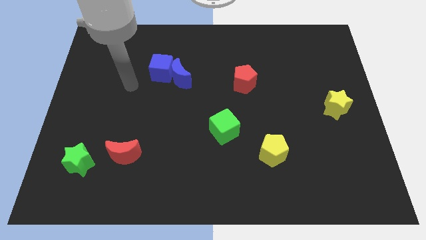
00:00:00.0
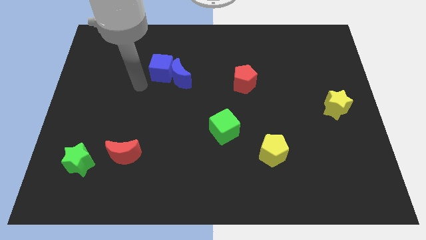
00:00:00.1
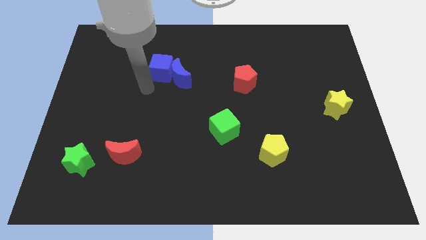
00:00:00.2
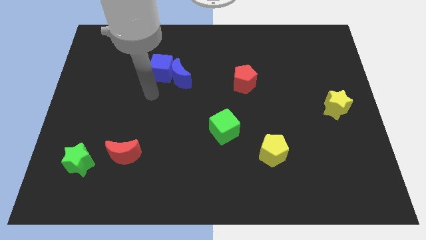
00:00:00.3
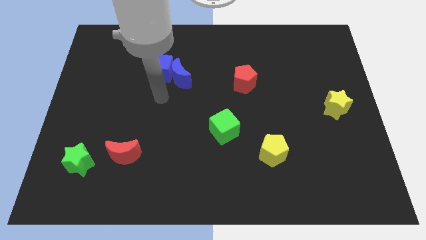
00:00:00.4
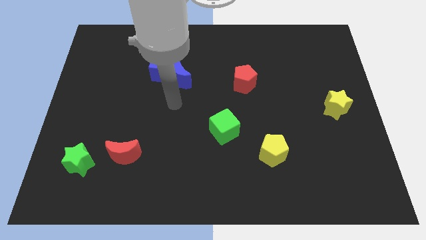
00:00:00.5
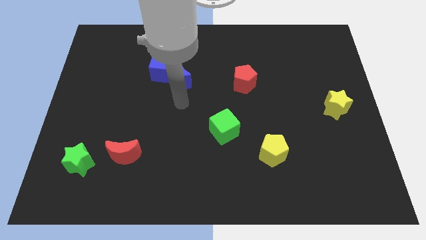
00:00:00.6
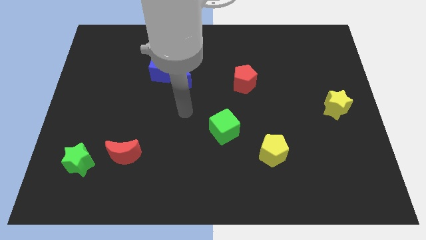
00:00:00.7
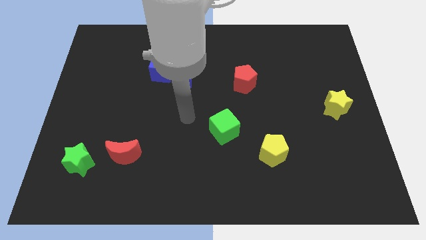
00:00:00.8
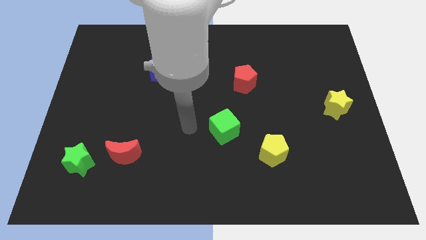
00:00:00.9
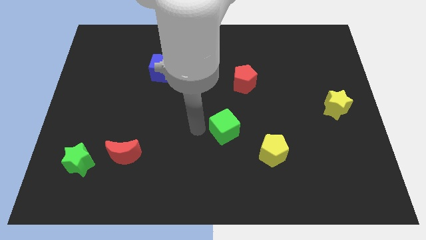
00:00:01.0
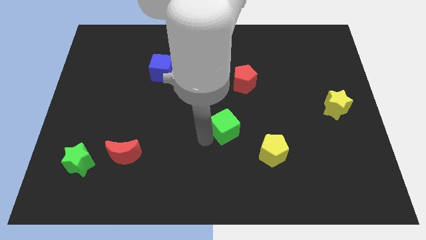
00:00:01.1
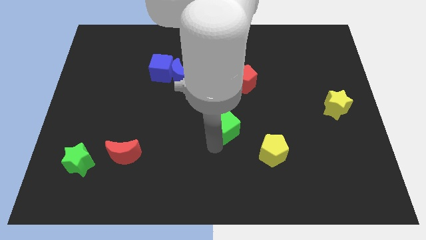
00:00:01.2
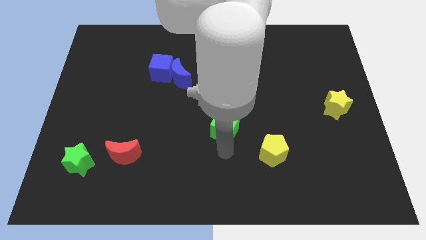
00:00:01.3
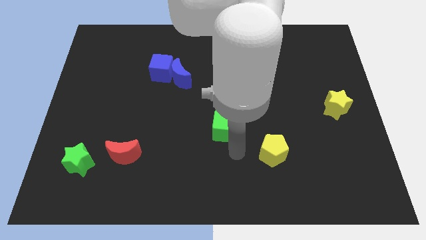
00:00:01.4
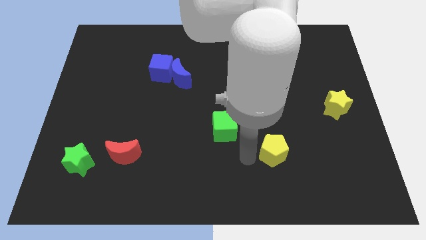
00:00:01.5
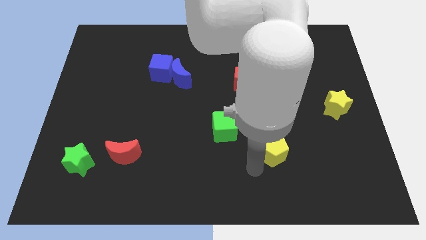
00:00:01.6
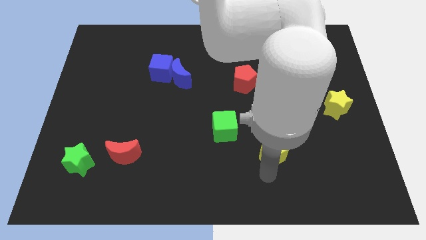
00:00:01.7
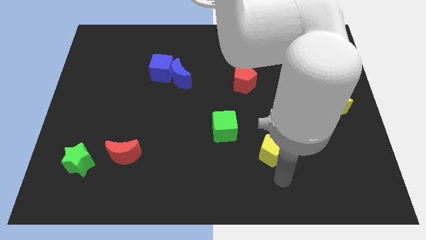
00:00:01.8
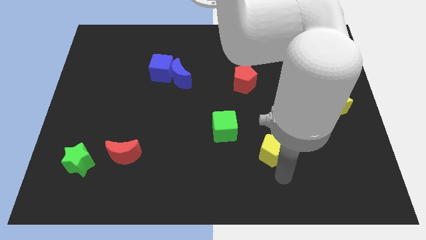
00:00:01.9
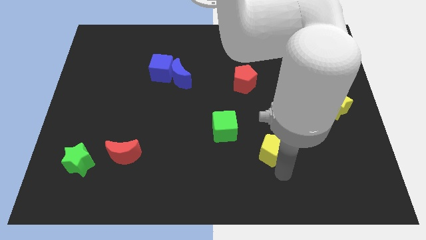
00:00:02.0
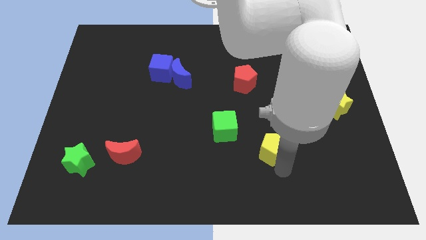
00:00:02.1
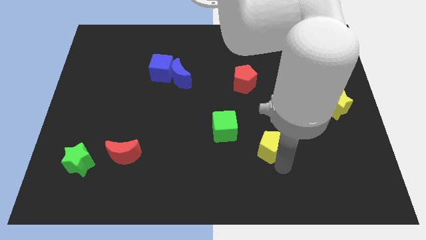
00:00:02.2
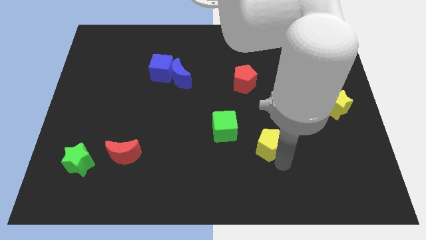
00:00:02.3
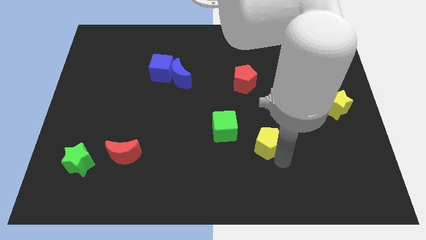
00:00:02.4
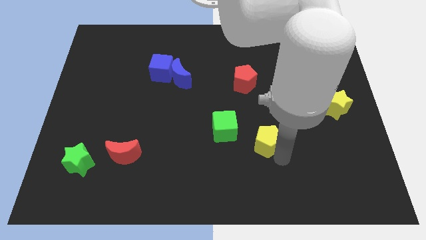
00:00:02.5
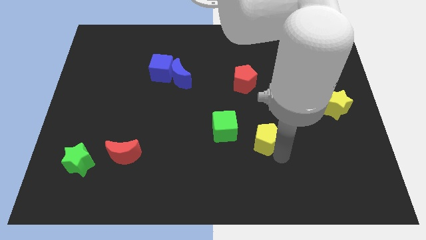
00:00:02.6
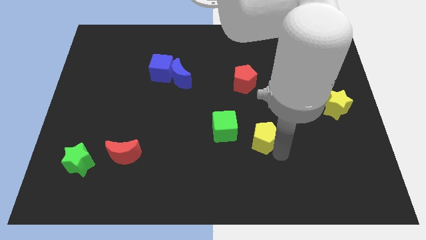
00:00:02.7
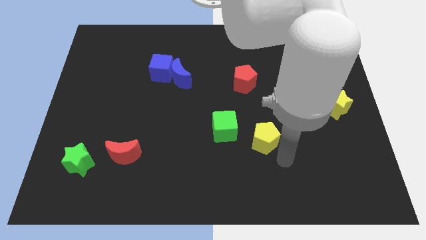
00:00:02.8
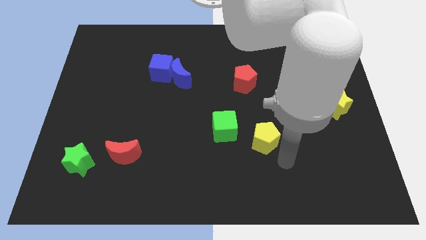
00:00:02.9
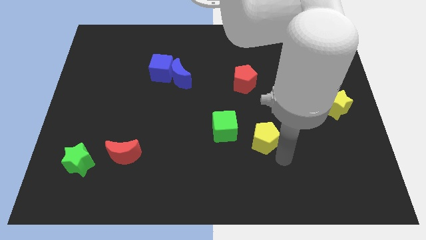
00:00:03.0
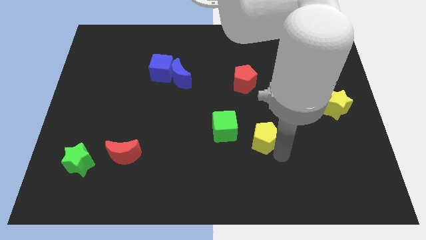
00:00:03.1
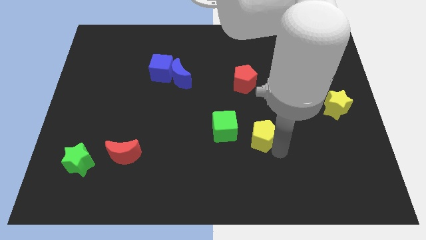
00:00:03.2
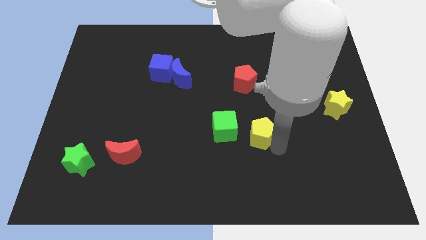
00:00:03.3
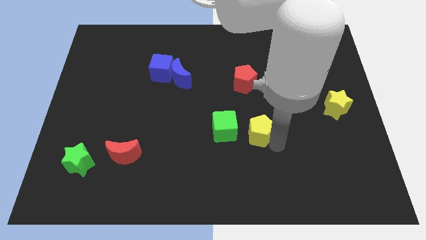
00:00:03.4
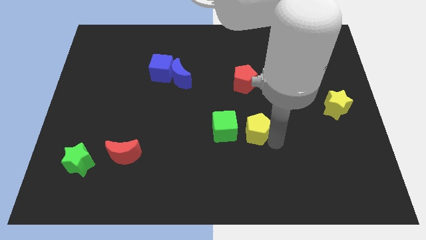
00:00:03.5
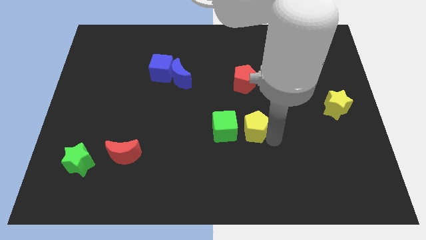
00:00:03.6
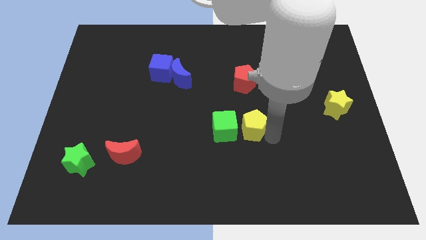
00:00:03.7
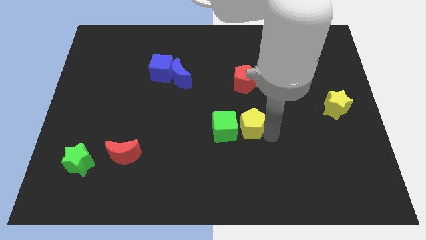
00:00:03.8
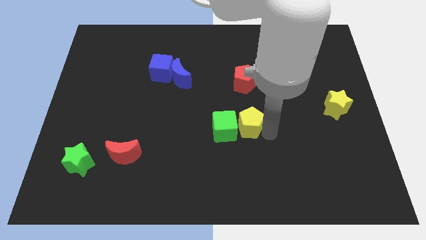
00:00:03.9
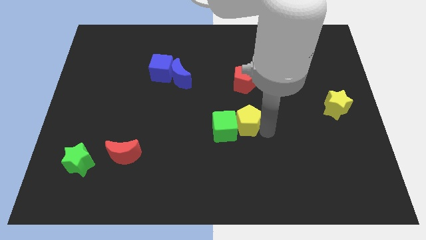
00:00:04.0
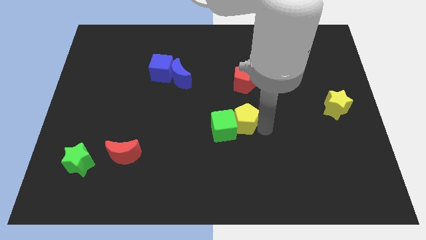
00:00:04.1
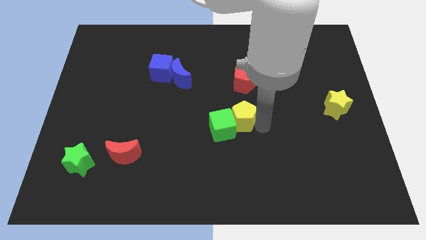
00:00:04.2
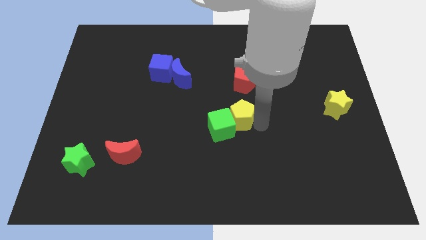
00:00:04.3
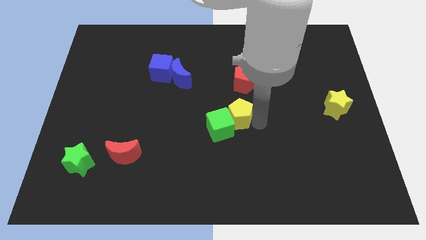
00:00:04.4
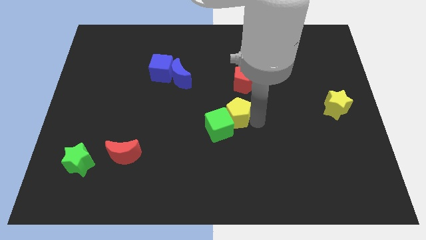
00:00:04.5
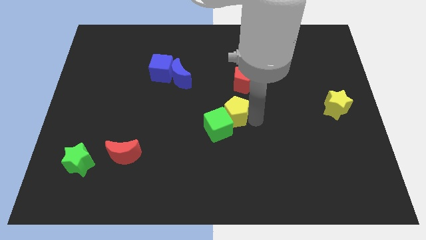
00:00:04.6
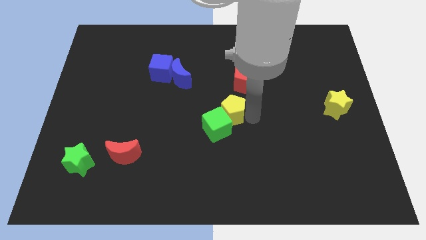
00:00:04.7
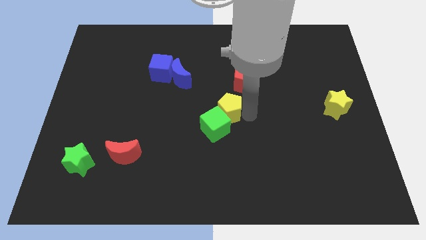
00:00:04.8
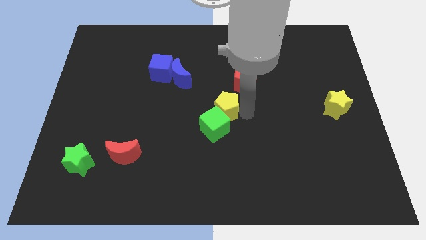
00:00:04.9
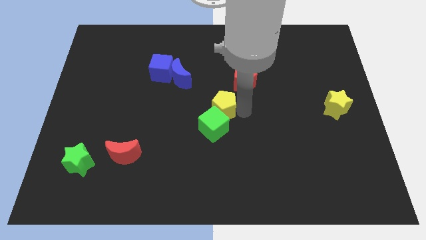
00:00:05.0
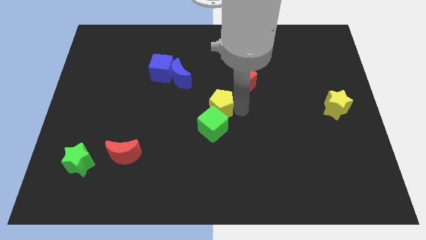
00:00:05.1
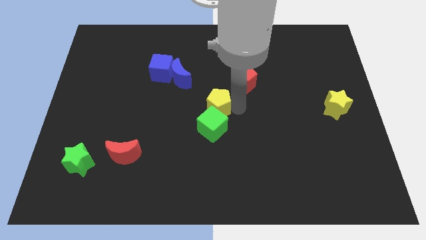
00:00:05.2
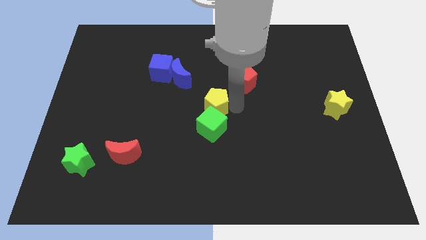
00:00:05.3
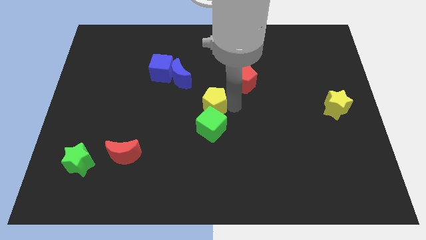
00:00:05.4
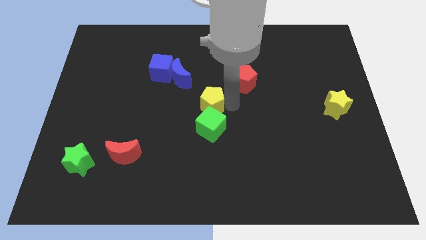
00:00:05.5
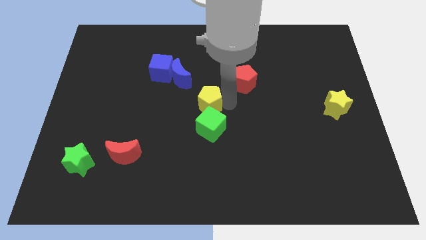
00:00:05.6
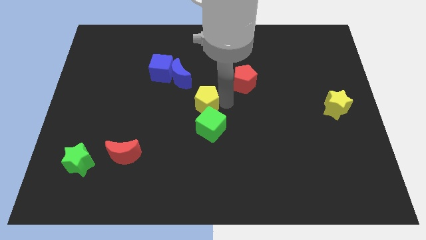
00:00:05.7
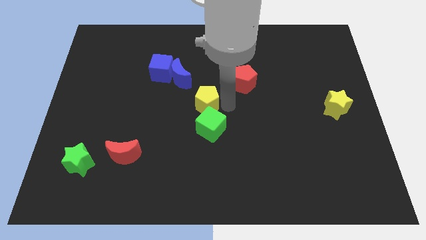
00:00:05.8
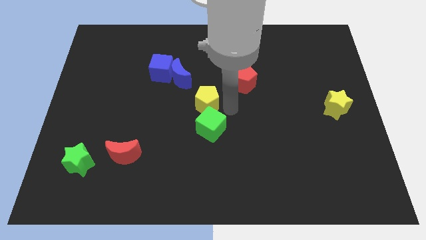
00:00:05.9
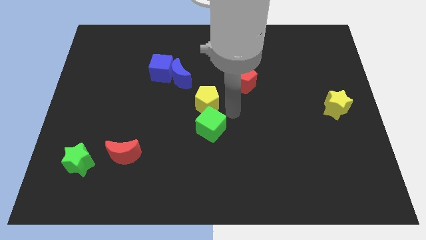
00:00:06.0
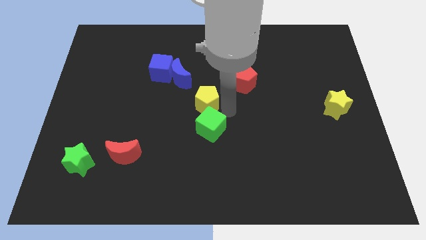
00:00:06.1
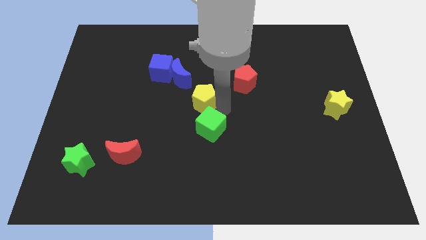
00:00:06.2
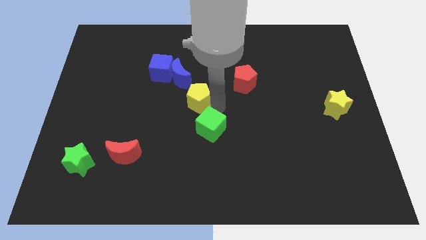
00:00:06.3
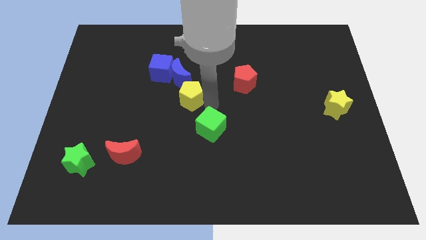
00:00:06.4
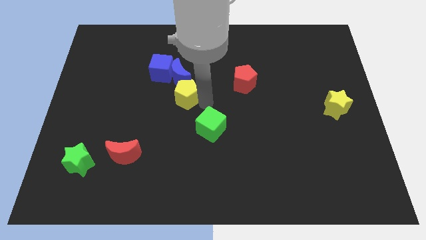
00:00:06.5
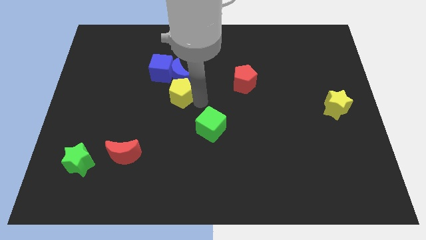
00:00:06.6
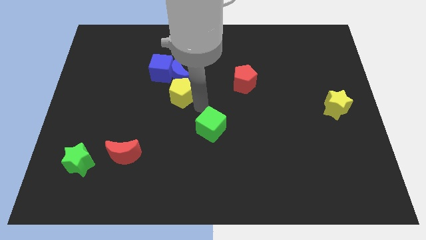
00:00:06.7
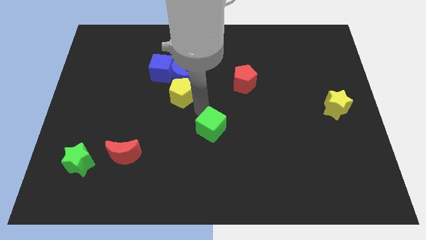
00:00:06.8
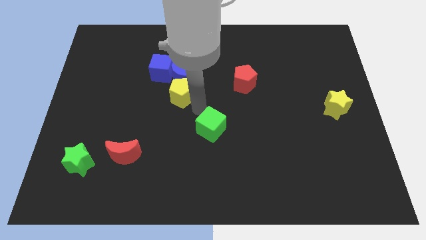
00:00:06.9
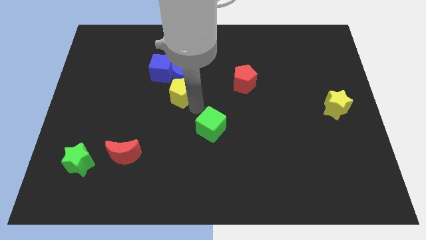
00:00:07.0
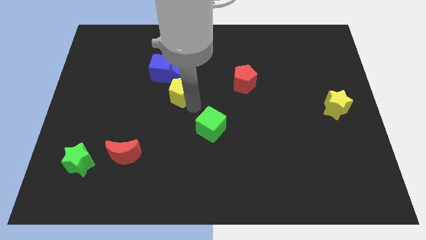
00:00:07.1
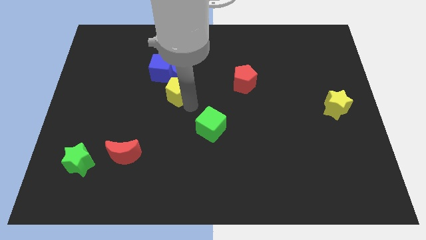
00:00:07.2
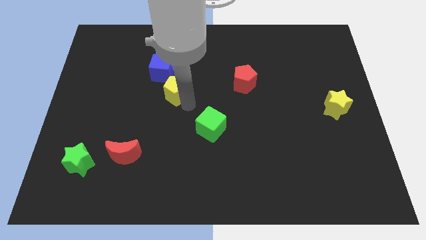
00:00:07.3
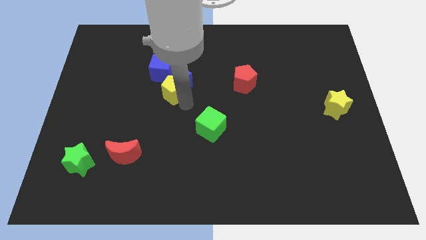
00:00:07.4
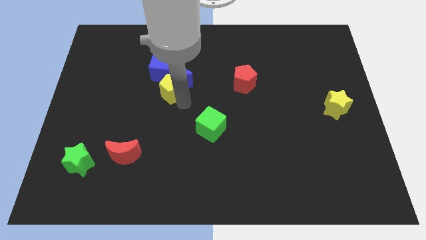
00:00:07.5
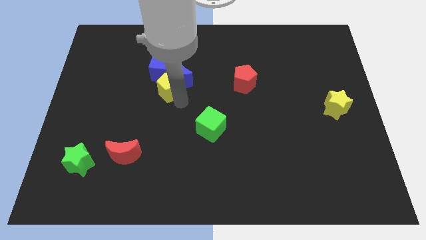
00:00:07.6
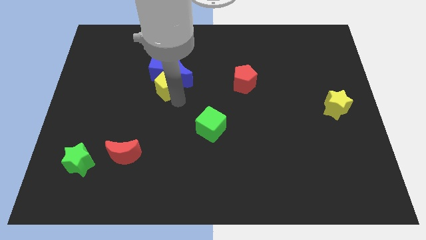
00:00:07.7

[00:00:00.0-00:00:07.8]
push the yellow pentagon close to the blue cube
